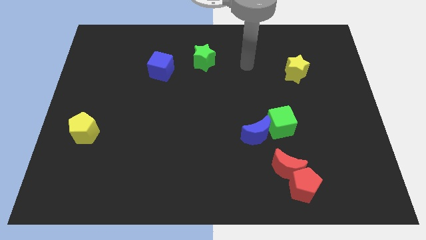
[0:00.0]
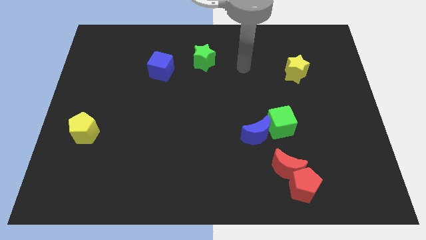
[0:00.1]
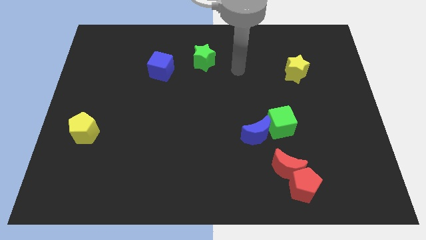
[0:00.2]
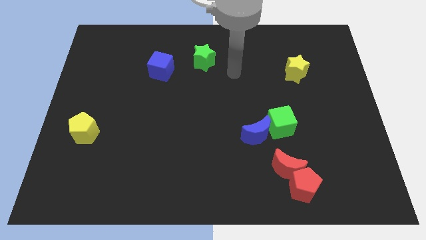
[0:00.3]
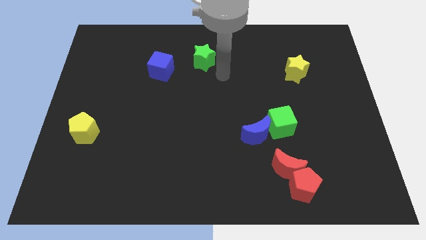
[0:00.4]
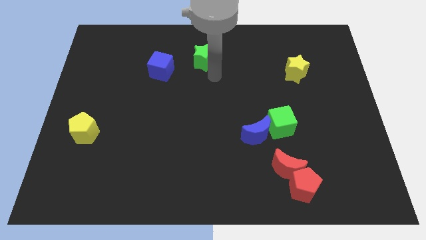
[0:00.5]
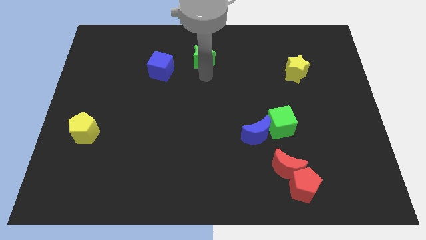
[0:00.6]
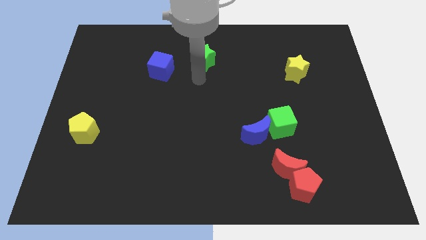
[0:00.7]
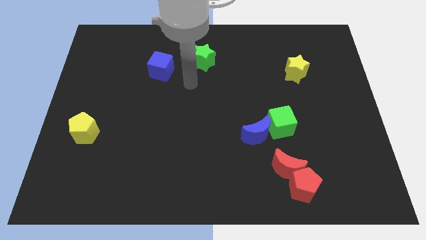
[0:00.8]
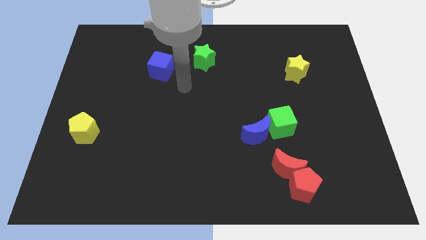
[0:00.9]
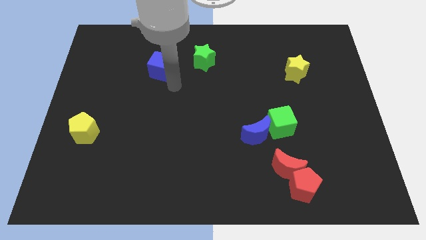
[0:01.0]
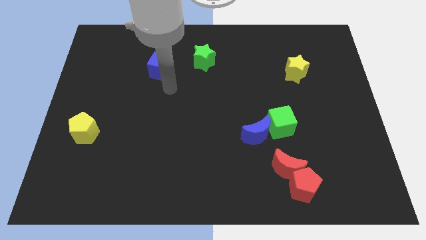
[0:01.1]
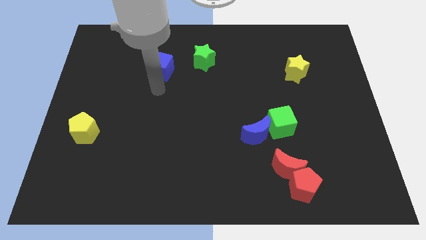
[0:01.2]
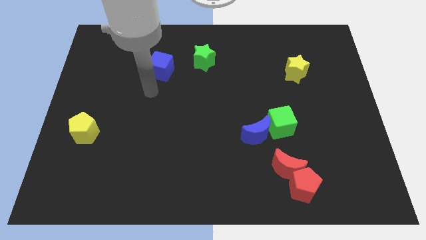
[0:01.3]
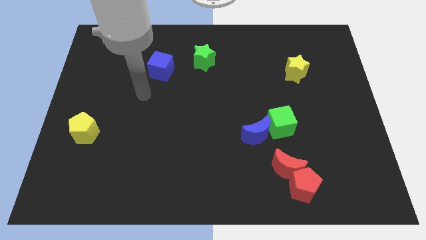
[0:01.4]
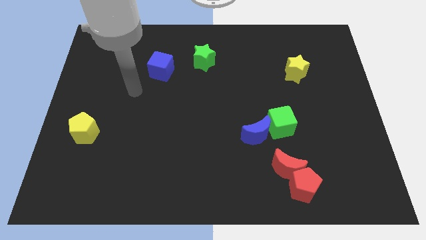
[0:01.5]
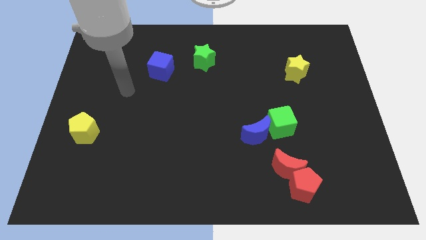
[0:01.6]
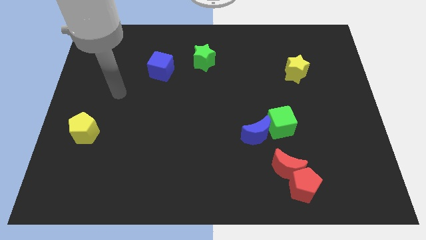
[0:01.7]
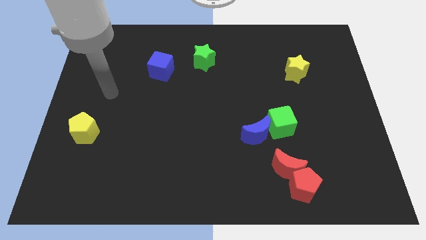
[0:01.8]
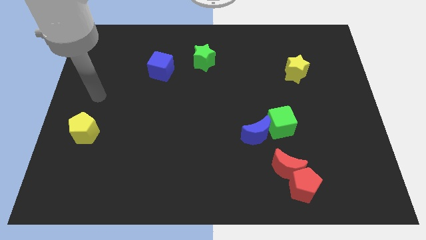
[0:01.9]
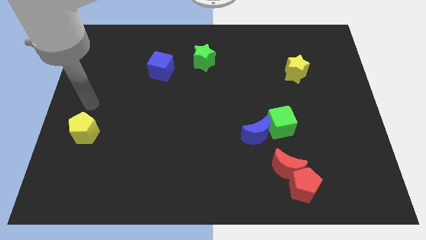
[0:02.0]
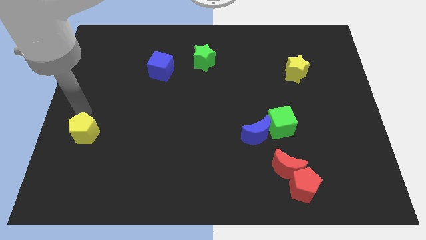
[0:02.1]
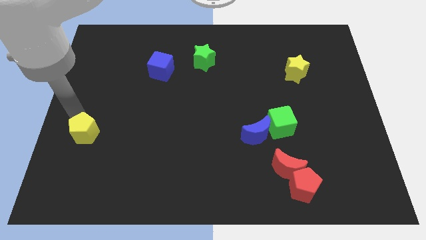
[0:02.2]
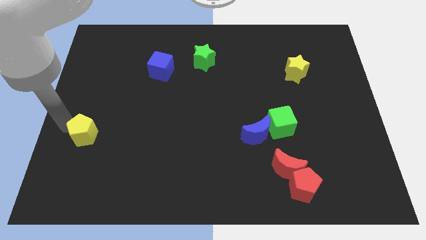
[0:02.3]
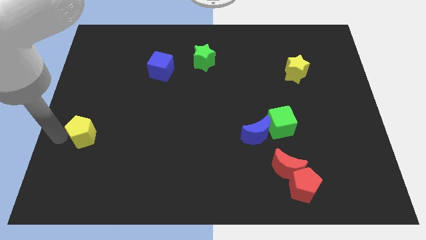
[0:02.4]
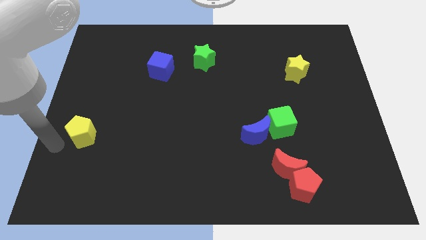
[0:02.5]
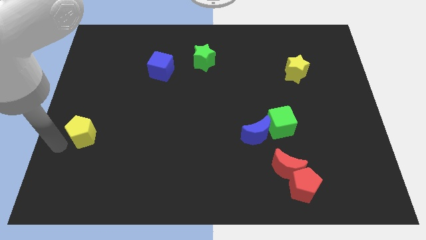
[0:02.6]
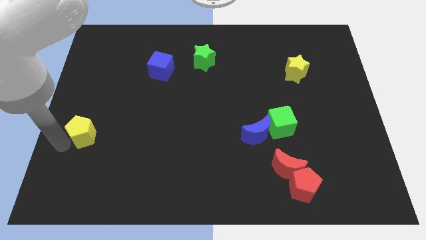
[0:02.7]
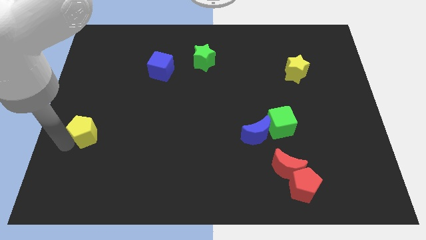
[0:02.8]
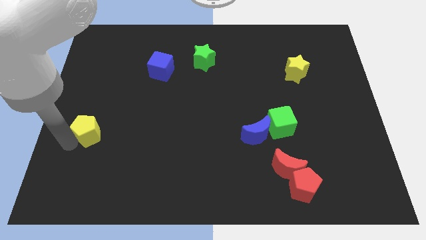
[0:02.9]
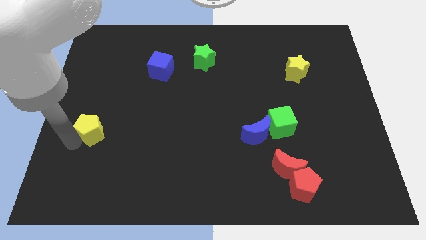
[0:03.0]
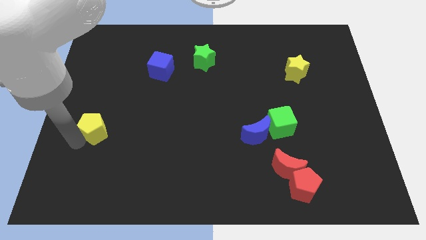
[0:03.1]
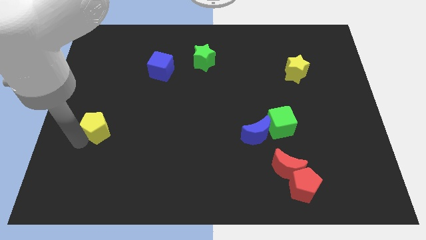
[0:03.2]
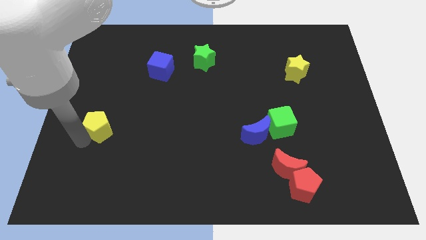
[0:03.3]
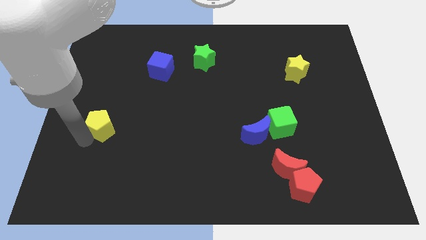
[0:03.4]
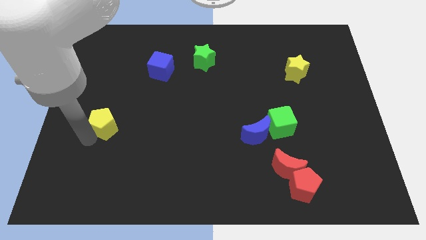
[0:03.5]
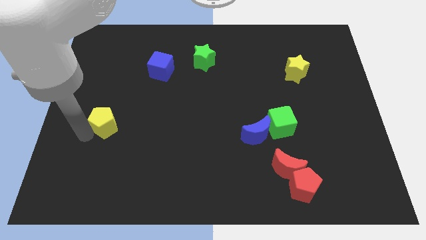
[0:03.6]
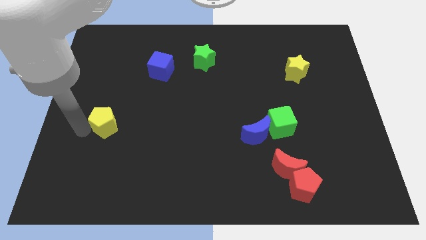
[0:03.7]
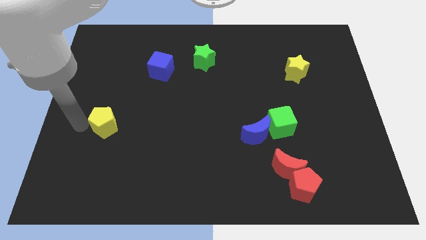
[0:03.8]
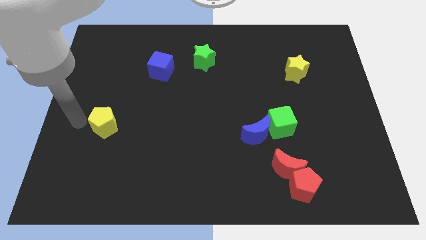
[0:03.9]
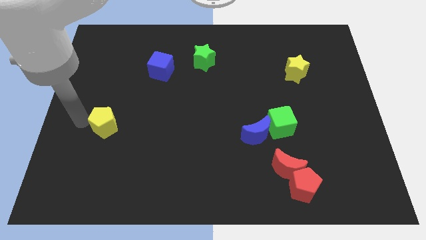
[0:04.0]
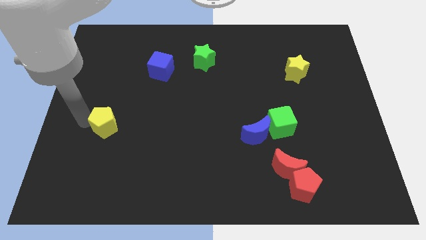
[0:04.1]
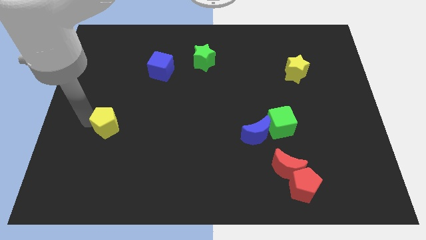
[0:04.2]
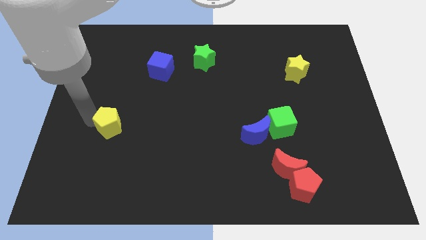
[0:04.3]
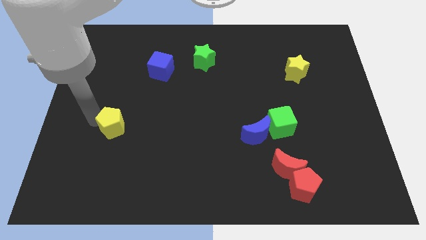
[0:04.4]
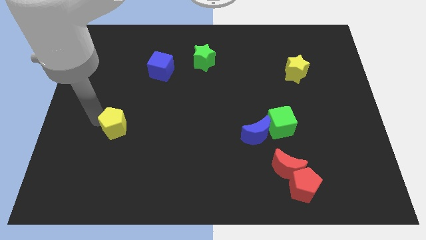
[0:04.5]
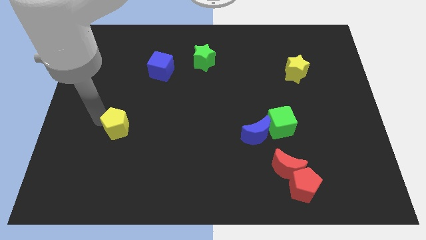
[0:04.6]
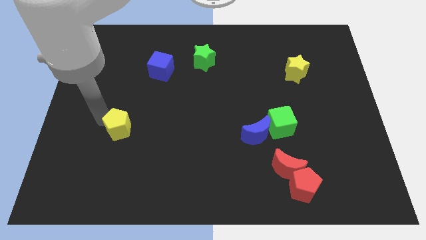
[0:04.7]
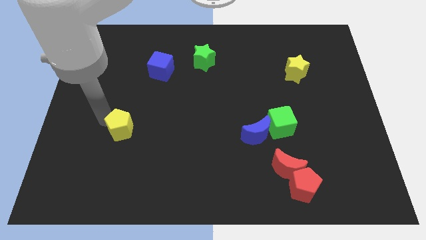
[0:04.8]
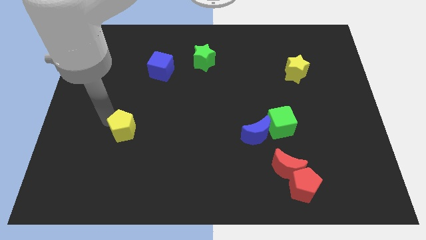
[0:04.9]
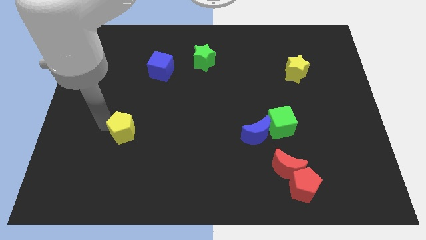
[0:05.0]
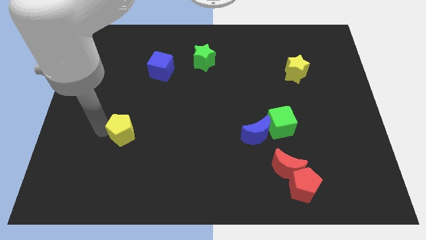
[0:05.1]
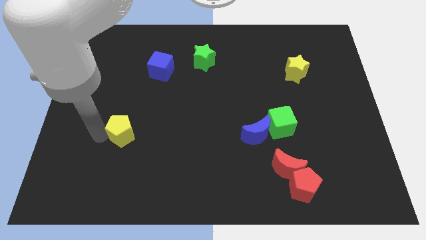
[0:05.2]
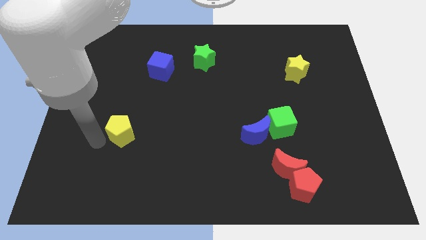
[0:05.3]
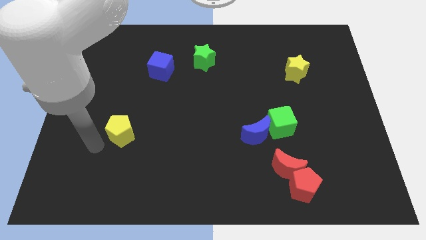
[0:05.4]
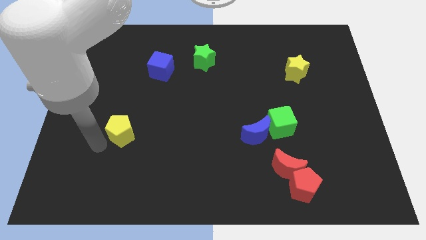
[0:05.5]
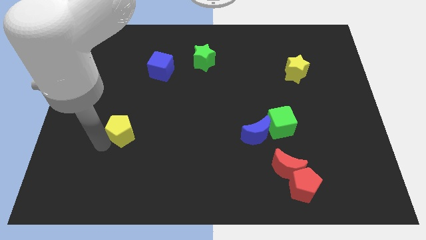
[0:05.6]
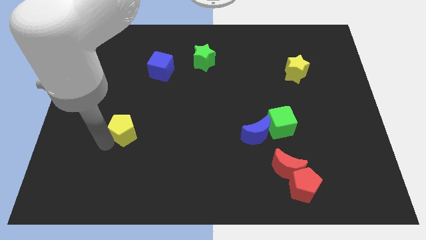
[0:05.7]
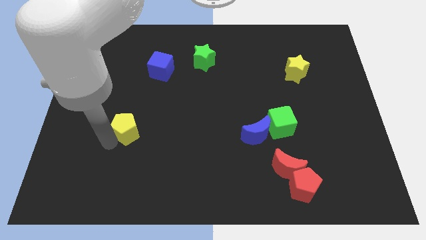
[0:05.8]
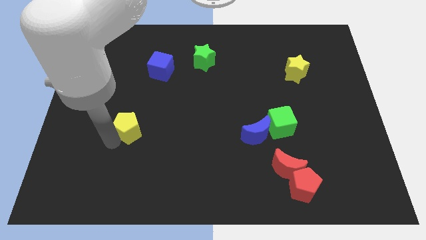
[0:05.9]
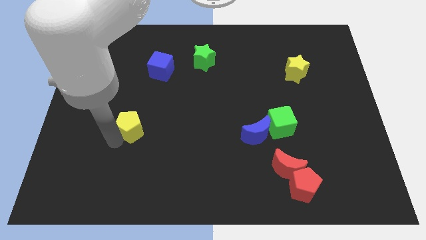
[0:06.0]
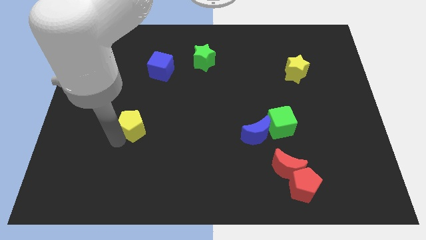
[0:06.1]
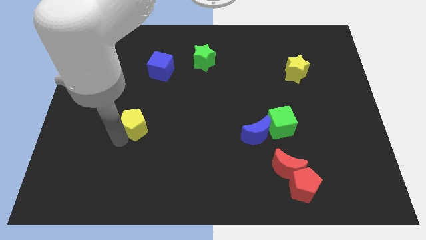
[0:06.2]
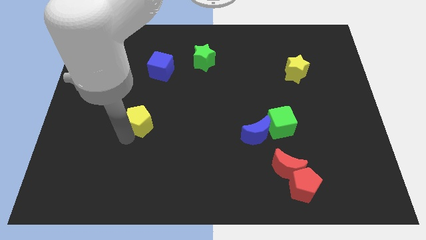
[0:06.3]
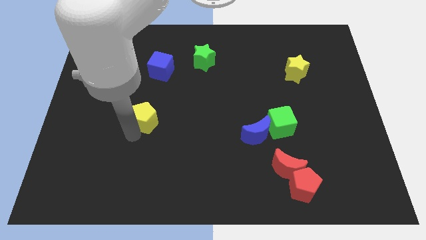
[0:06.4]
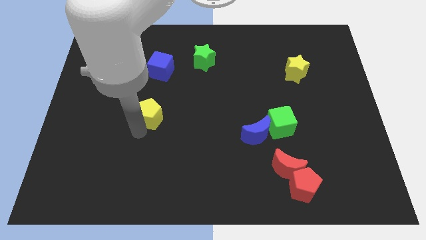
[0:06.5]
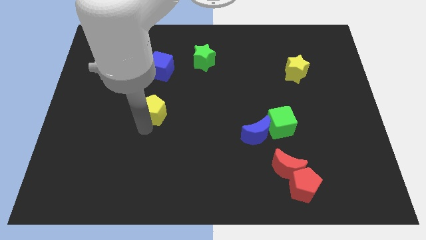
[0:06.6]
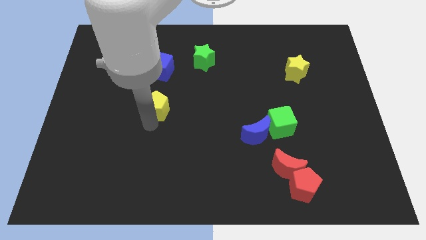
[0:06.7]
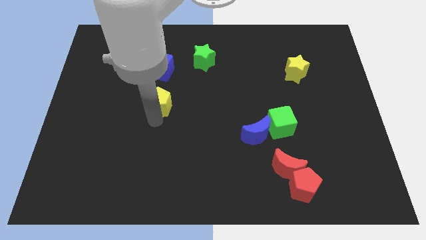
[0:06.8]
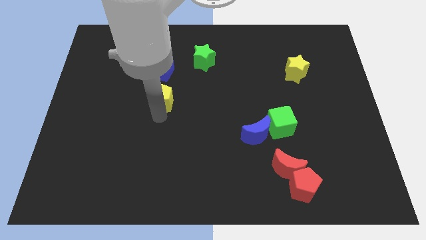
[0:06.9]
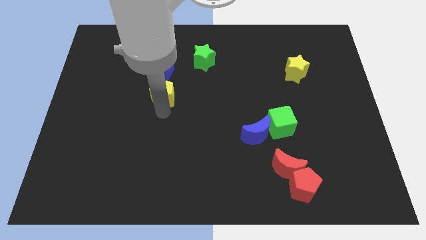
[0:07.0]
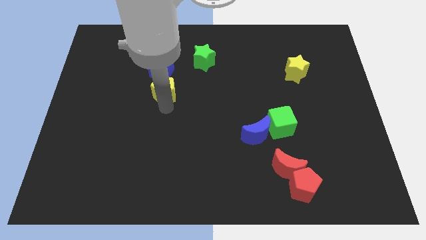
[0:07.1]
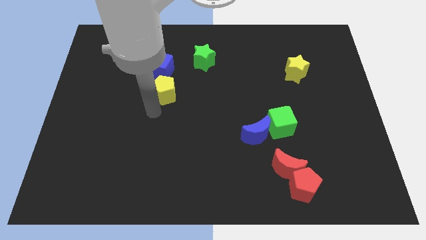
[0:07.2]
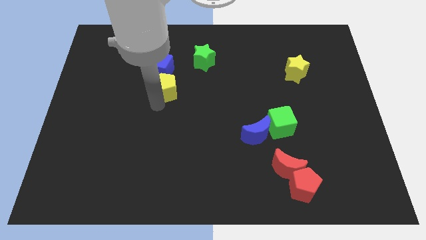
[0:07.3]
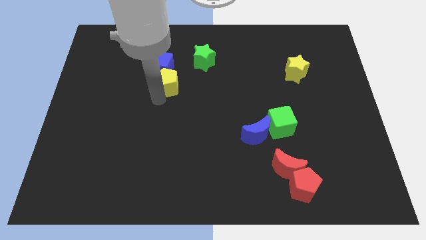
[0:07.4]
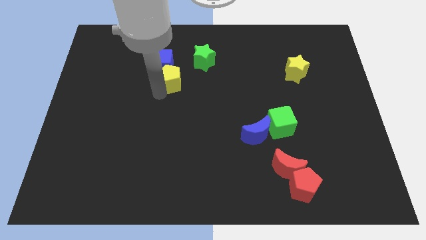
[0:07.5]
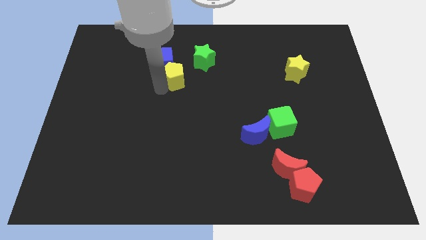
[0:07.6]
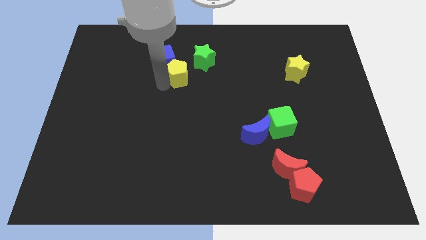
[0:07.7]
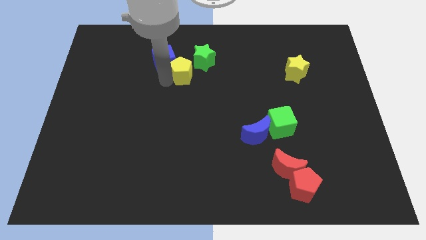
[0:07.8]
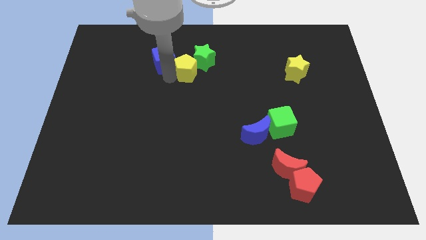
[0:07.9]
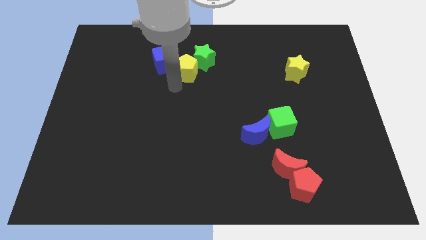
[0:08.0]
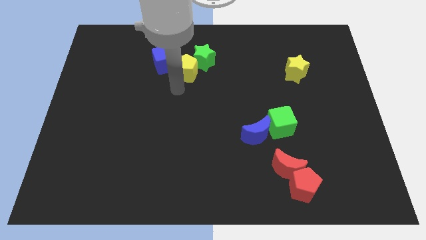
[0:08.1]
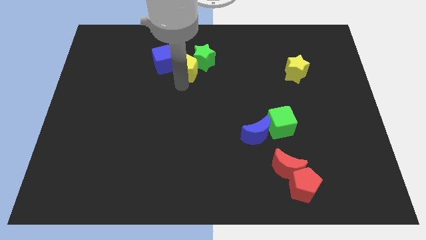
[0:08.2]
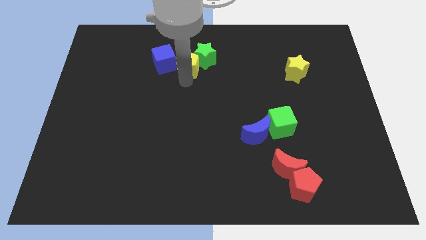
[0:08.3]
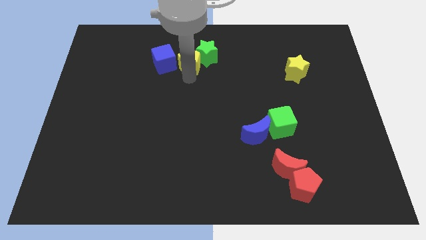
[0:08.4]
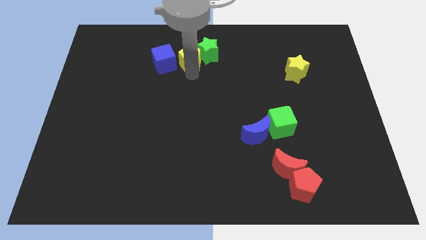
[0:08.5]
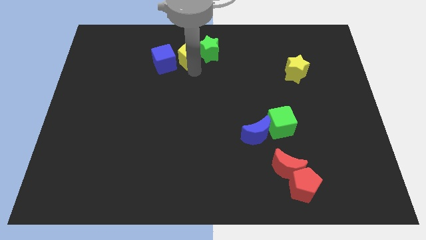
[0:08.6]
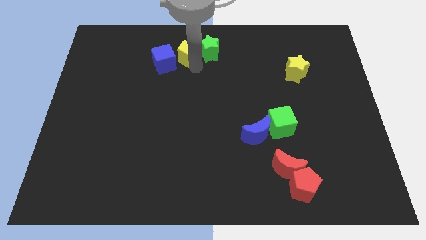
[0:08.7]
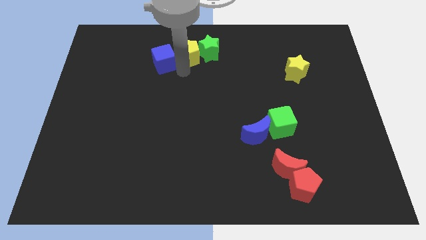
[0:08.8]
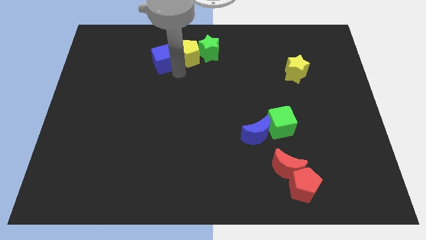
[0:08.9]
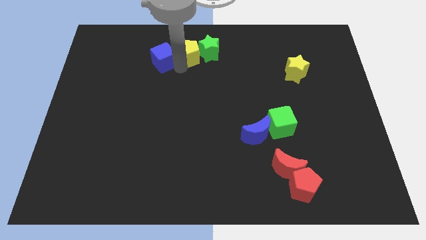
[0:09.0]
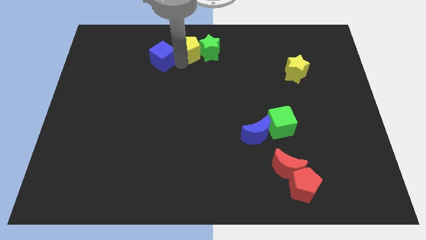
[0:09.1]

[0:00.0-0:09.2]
put the yellow pentagon to the top side
